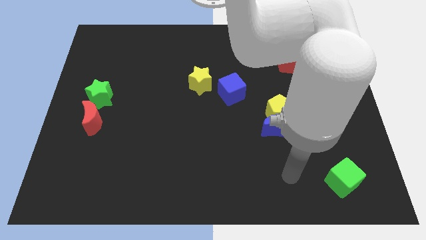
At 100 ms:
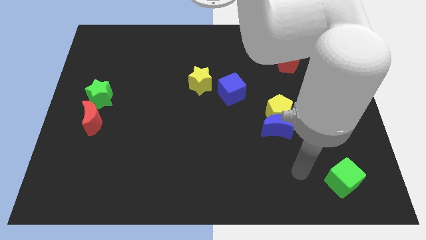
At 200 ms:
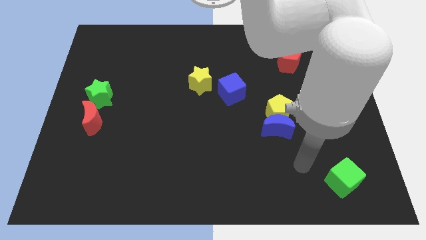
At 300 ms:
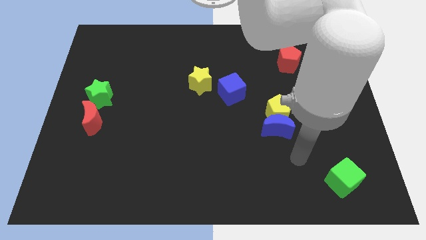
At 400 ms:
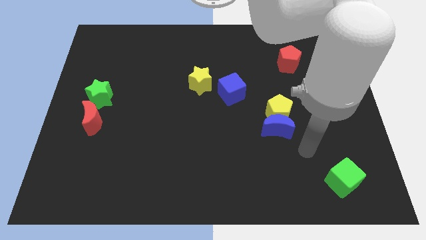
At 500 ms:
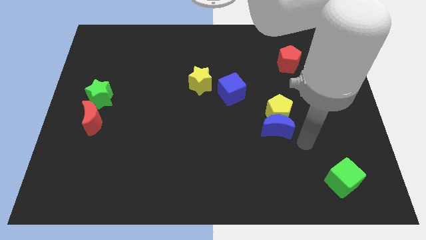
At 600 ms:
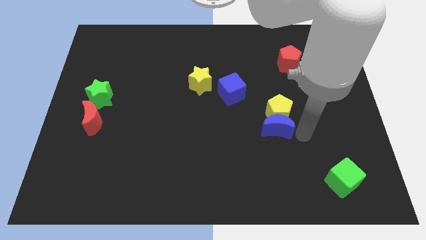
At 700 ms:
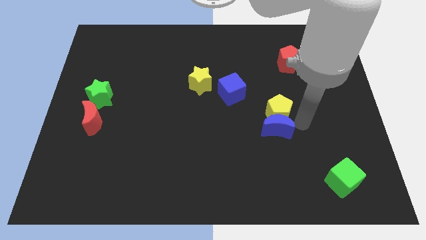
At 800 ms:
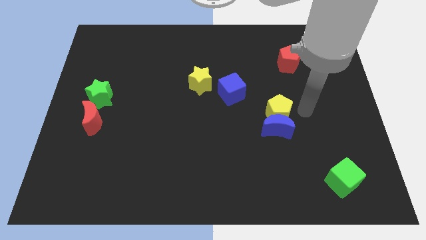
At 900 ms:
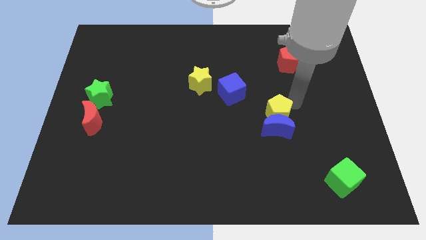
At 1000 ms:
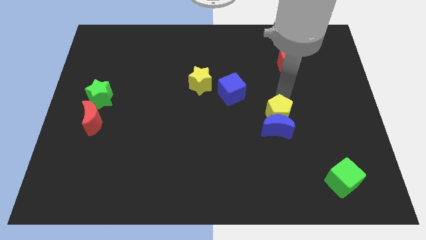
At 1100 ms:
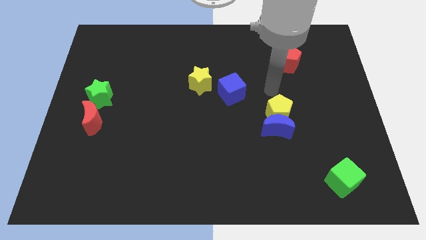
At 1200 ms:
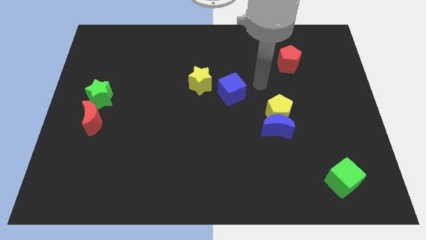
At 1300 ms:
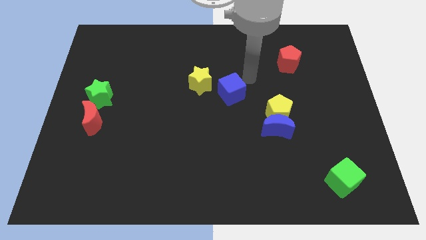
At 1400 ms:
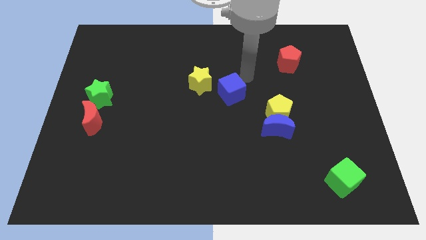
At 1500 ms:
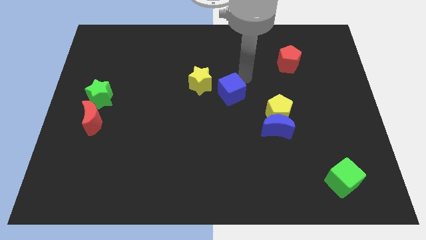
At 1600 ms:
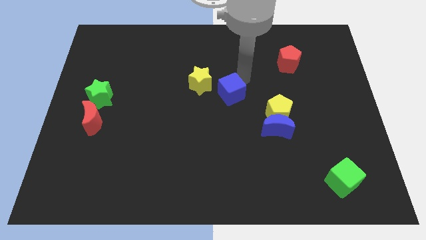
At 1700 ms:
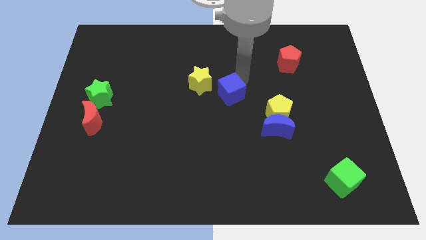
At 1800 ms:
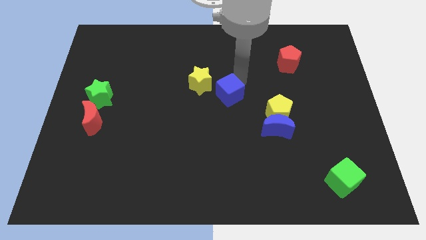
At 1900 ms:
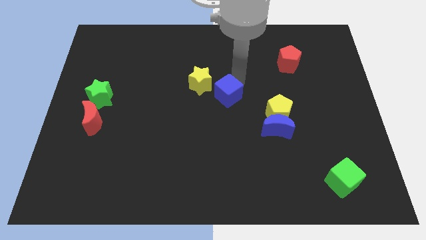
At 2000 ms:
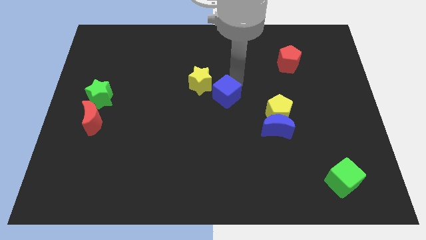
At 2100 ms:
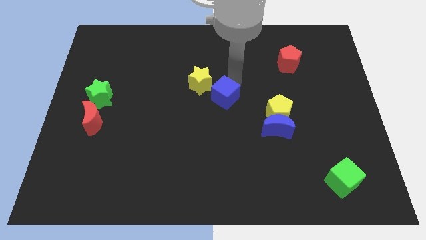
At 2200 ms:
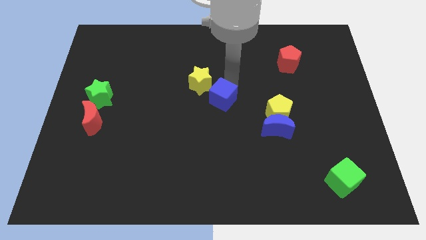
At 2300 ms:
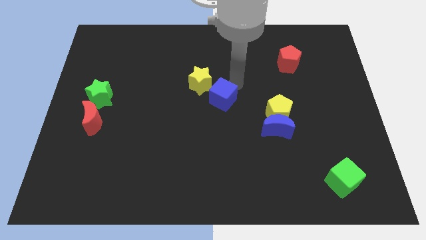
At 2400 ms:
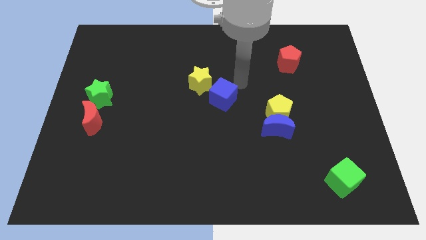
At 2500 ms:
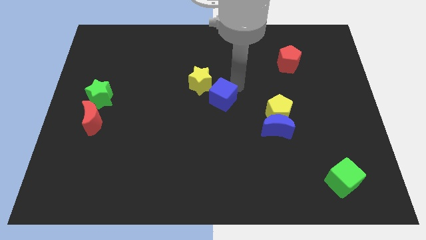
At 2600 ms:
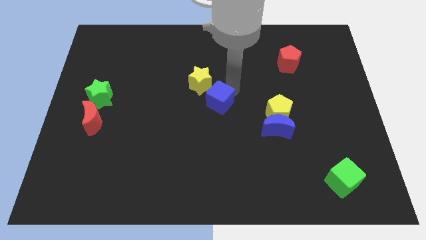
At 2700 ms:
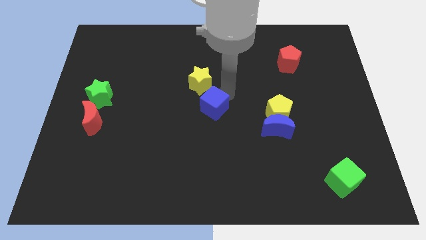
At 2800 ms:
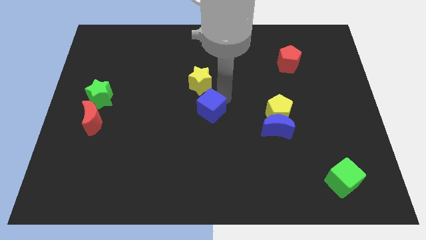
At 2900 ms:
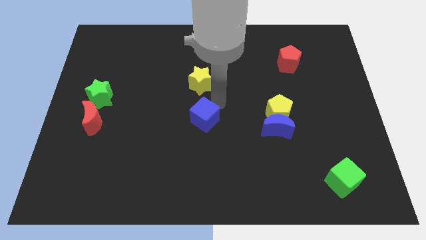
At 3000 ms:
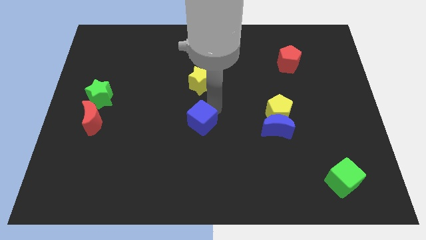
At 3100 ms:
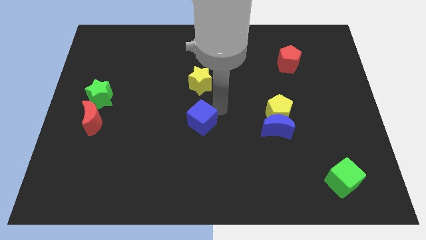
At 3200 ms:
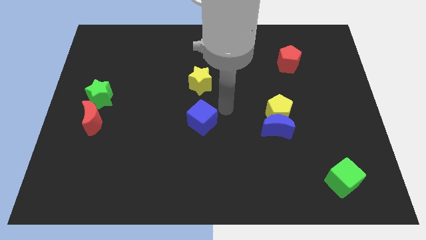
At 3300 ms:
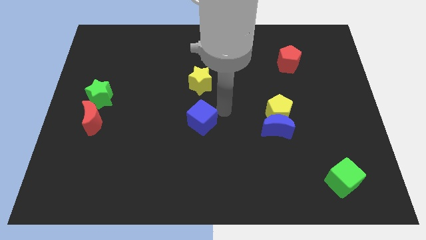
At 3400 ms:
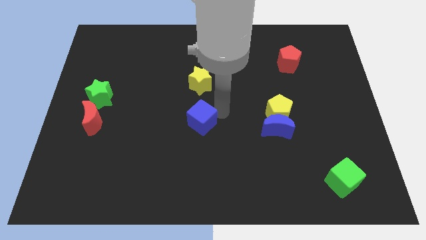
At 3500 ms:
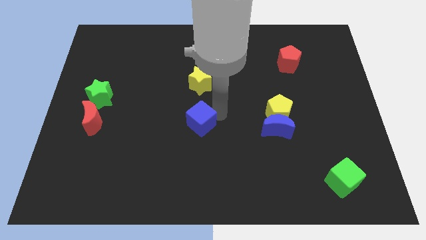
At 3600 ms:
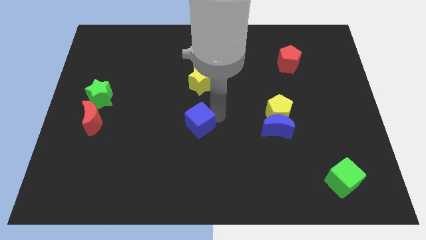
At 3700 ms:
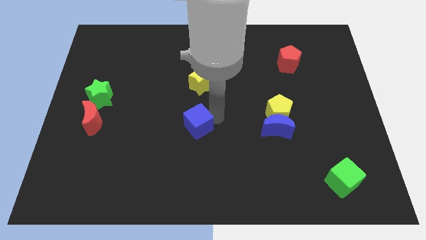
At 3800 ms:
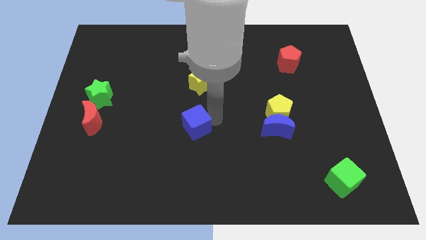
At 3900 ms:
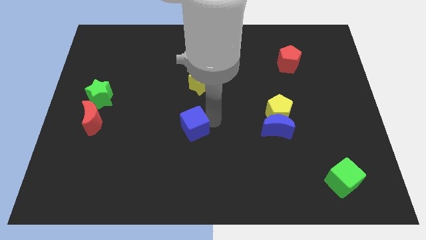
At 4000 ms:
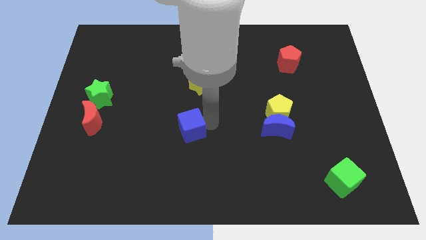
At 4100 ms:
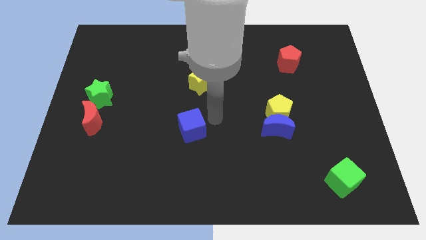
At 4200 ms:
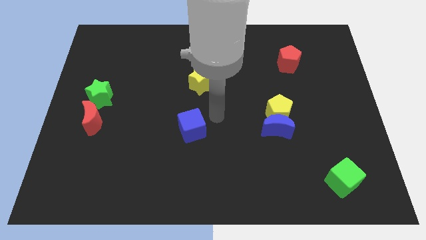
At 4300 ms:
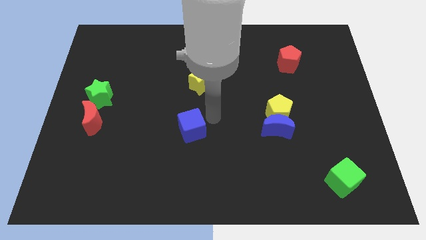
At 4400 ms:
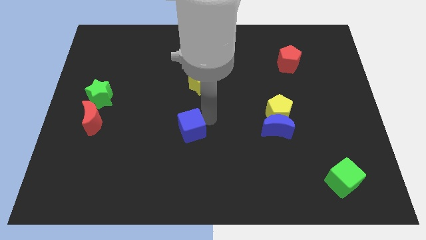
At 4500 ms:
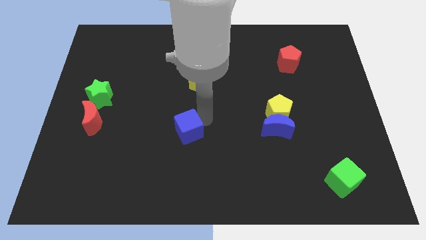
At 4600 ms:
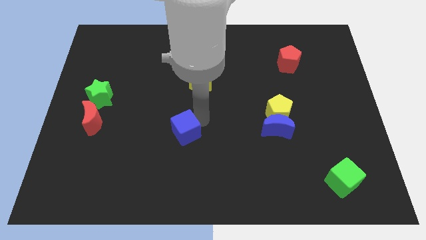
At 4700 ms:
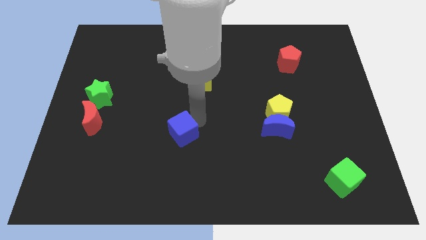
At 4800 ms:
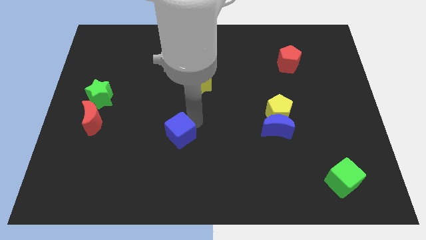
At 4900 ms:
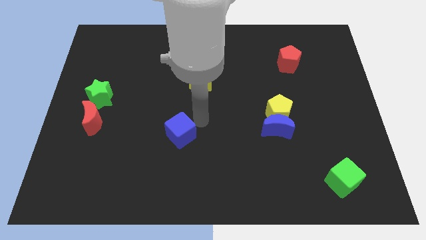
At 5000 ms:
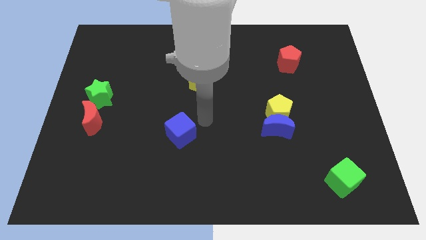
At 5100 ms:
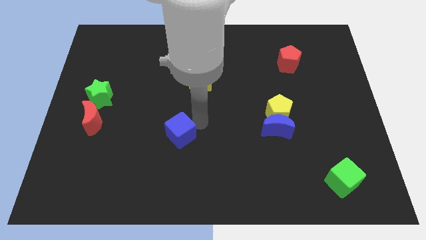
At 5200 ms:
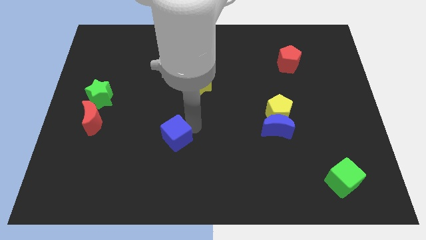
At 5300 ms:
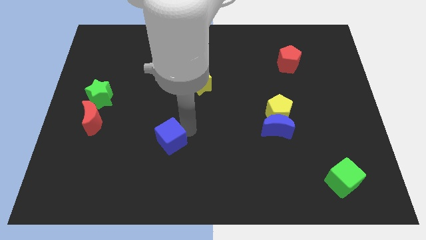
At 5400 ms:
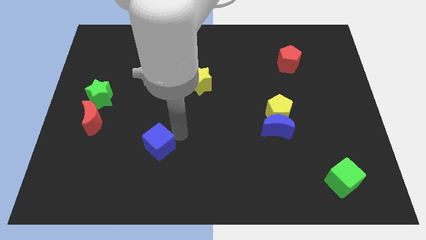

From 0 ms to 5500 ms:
move the blue cube diagonally down and left

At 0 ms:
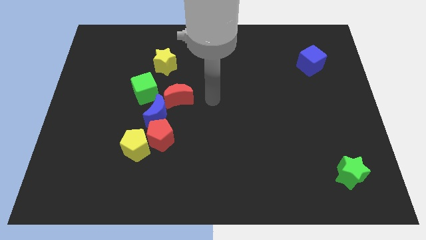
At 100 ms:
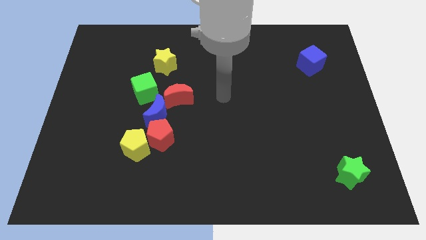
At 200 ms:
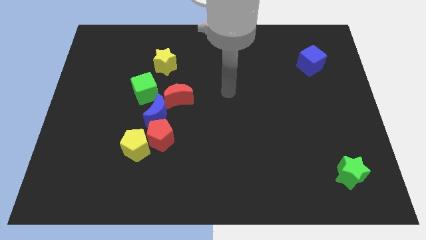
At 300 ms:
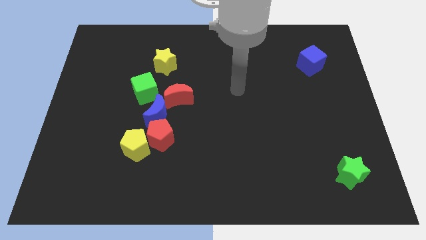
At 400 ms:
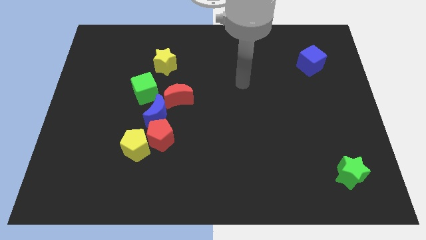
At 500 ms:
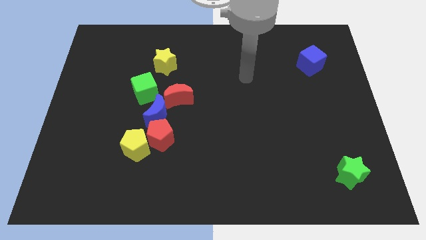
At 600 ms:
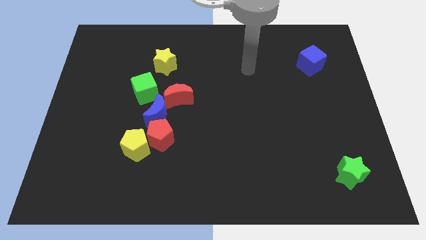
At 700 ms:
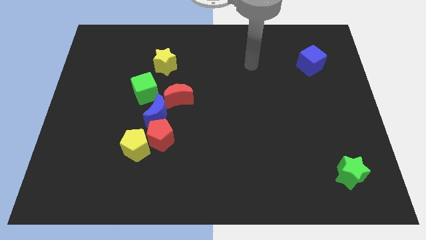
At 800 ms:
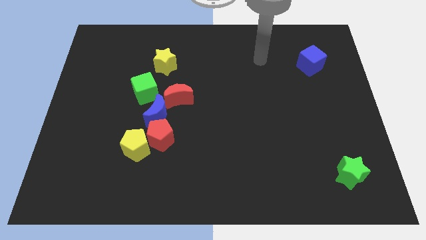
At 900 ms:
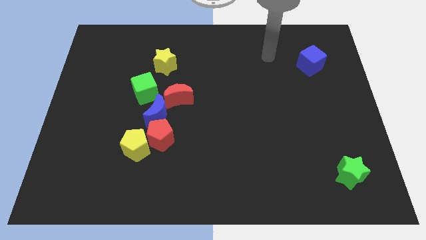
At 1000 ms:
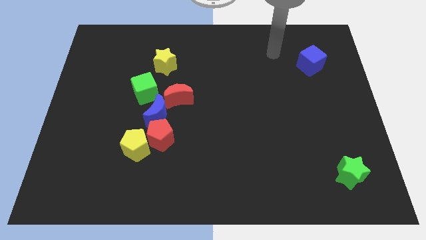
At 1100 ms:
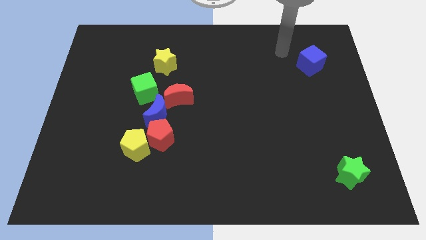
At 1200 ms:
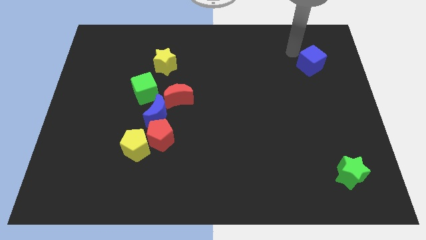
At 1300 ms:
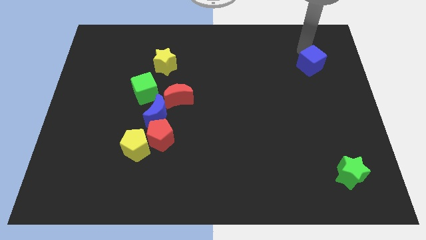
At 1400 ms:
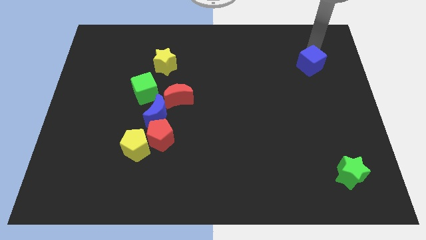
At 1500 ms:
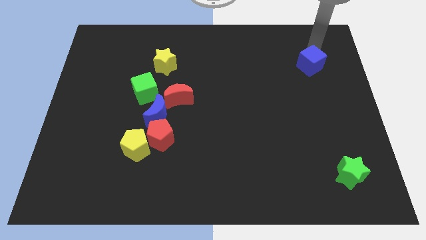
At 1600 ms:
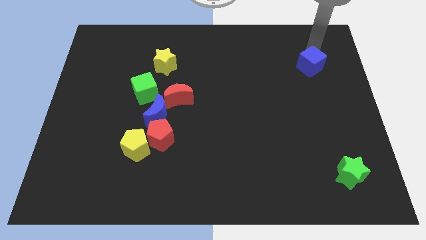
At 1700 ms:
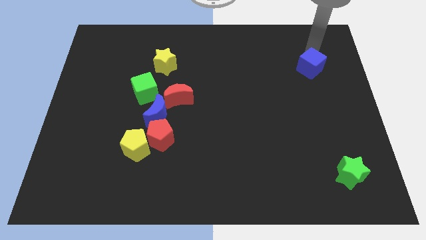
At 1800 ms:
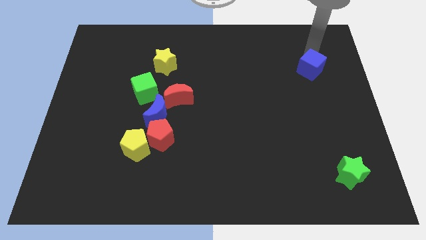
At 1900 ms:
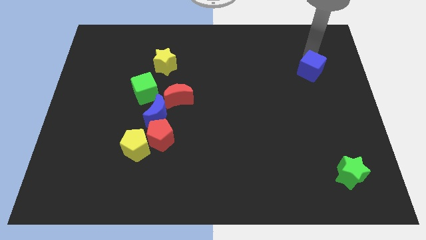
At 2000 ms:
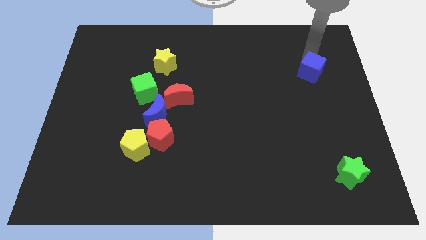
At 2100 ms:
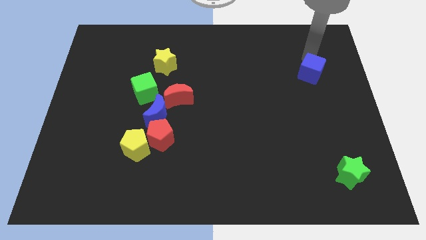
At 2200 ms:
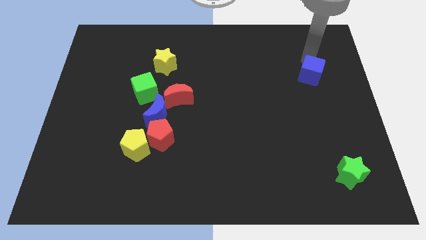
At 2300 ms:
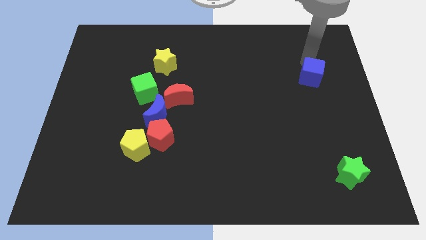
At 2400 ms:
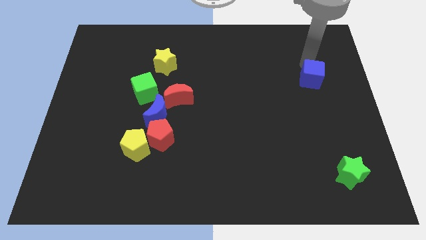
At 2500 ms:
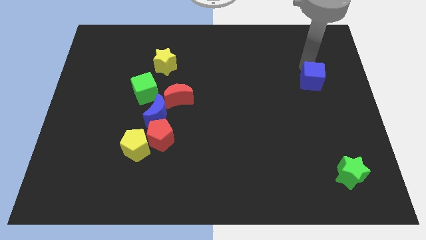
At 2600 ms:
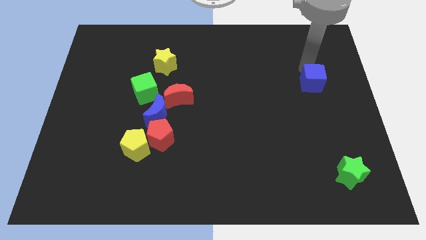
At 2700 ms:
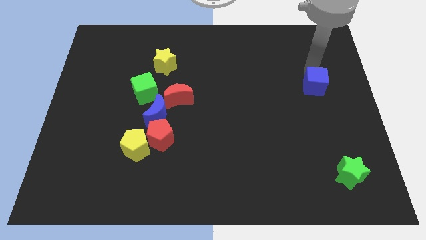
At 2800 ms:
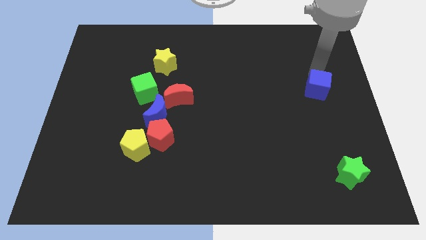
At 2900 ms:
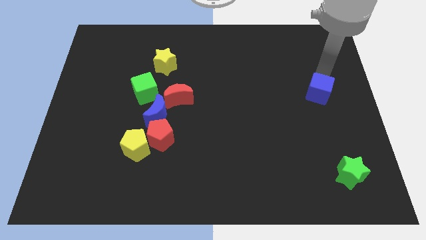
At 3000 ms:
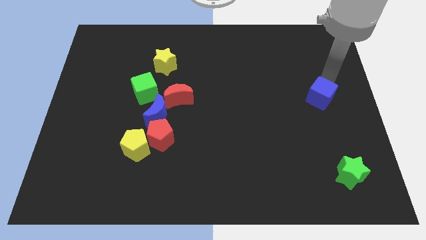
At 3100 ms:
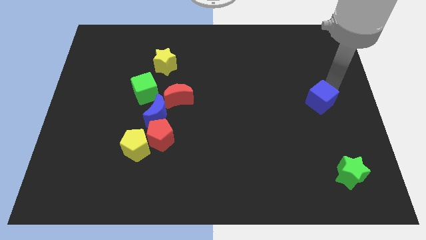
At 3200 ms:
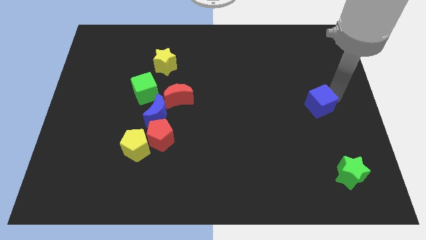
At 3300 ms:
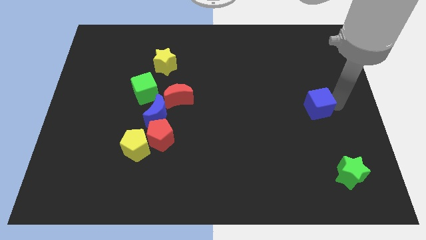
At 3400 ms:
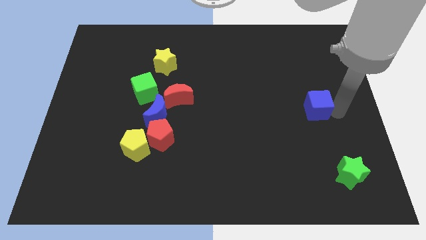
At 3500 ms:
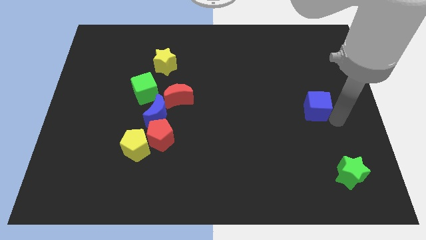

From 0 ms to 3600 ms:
move the blue cube downwards and to the left diagonally slightly
